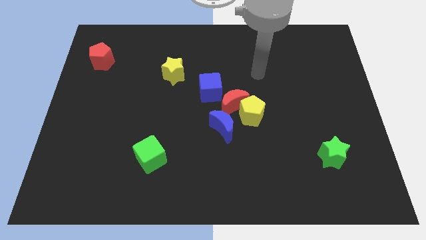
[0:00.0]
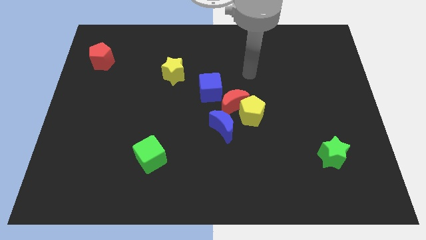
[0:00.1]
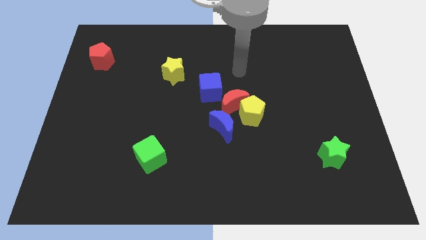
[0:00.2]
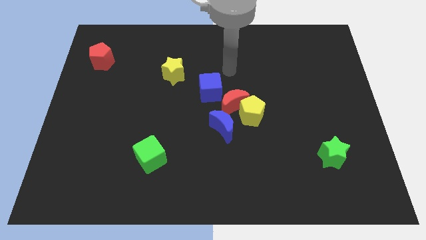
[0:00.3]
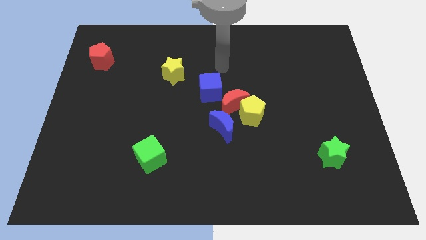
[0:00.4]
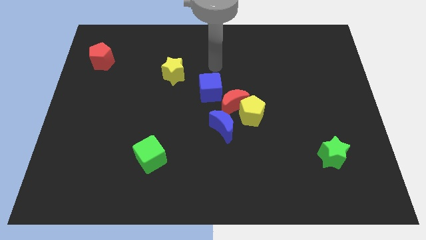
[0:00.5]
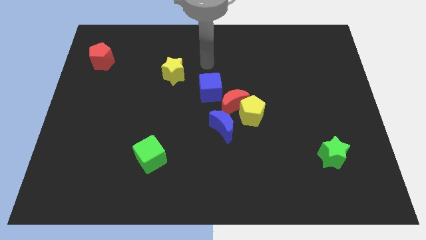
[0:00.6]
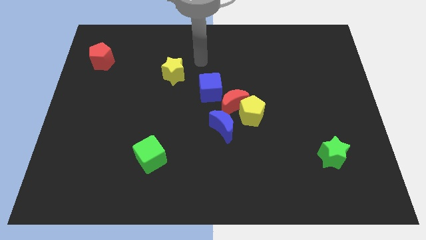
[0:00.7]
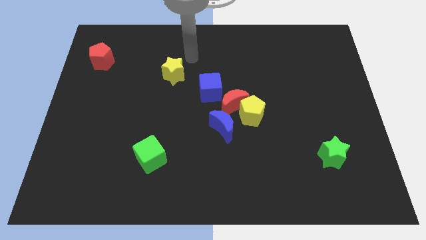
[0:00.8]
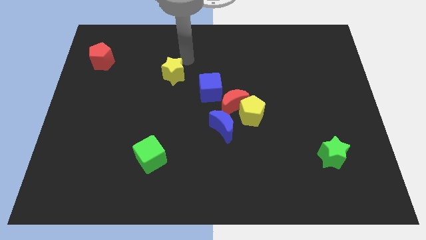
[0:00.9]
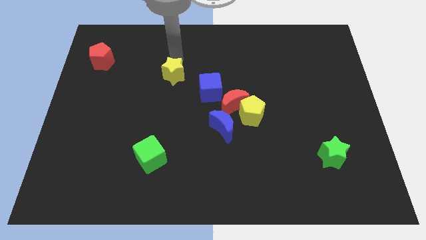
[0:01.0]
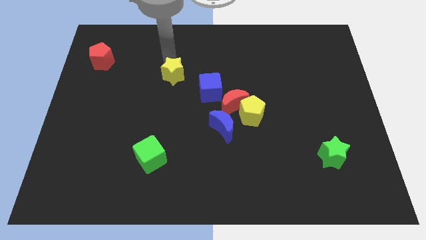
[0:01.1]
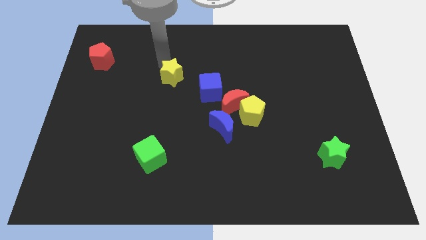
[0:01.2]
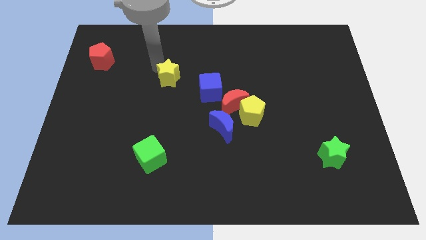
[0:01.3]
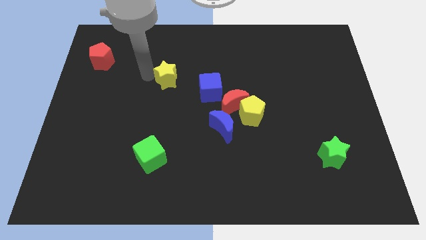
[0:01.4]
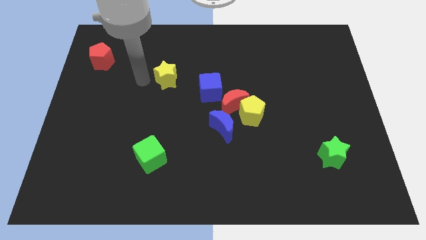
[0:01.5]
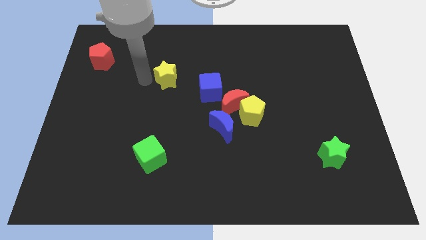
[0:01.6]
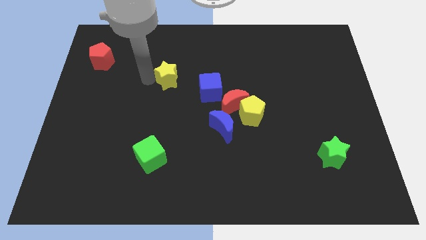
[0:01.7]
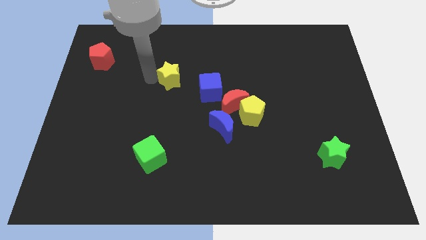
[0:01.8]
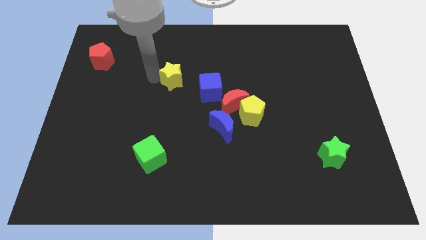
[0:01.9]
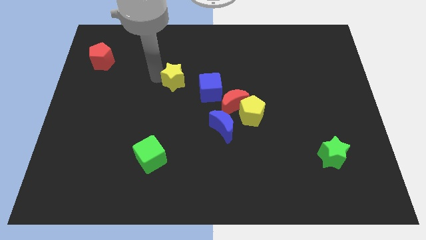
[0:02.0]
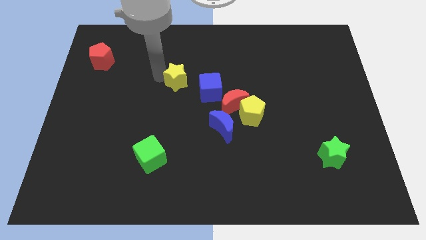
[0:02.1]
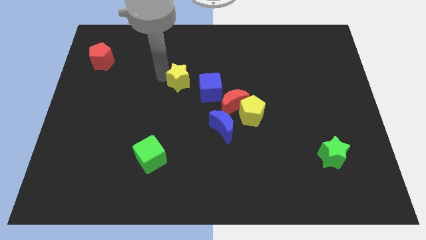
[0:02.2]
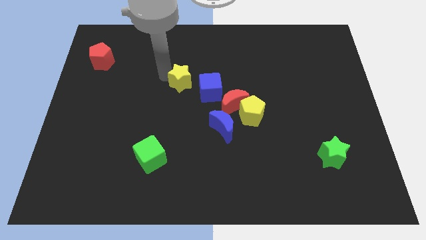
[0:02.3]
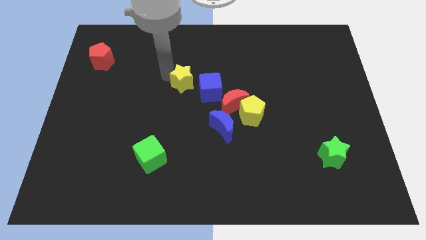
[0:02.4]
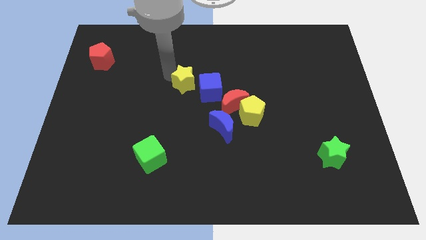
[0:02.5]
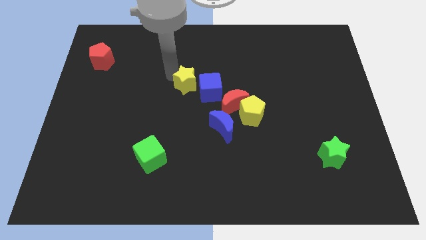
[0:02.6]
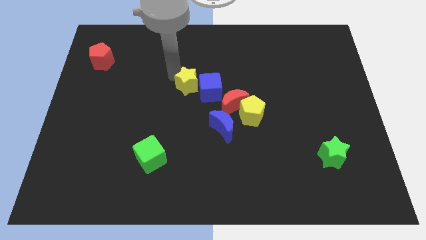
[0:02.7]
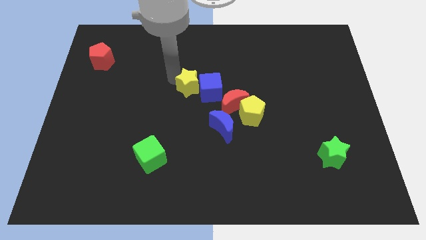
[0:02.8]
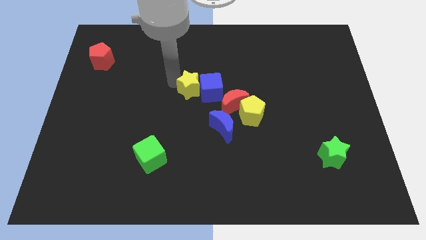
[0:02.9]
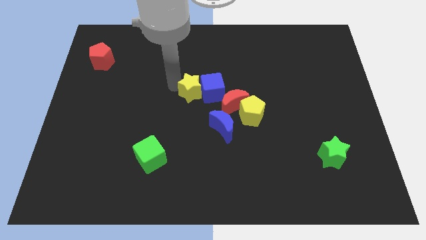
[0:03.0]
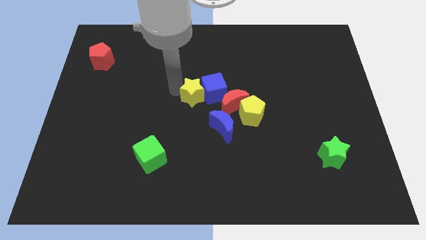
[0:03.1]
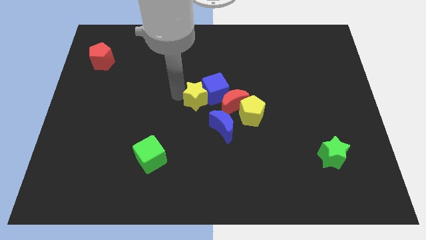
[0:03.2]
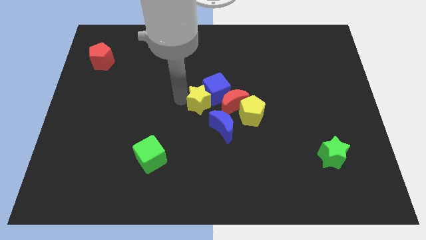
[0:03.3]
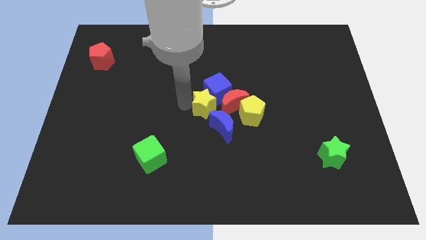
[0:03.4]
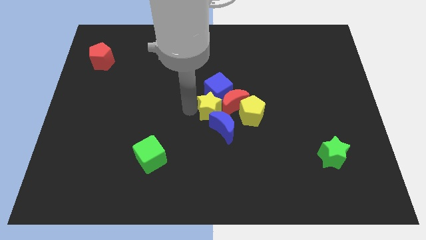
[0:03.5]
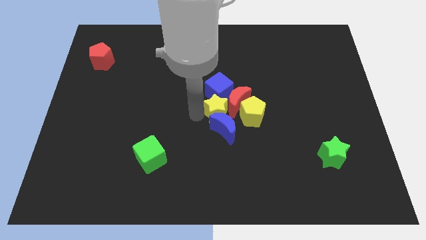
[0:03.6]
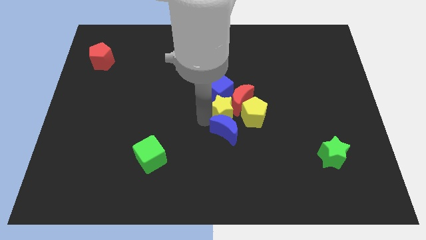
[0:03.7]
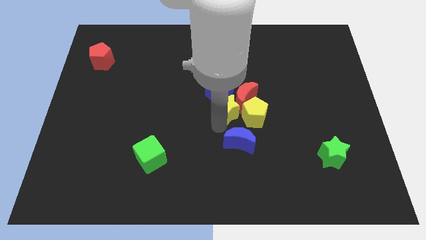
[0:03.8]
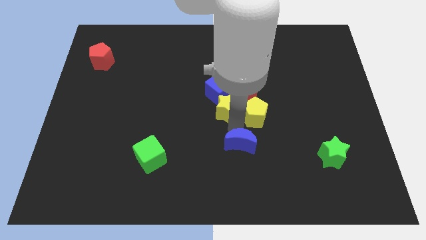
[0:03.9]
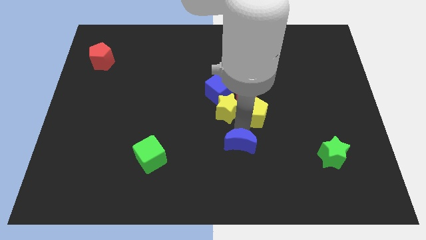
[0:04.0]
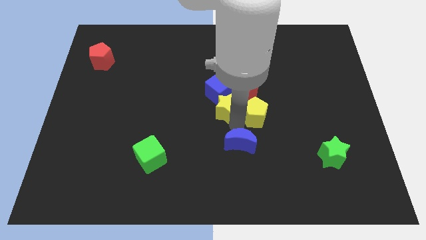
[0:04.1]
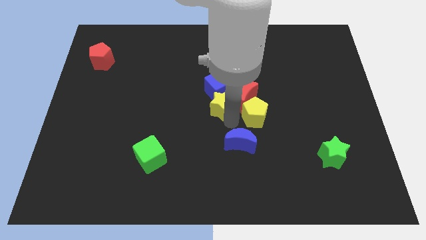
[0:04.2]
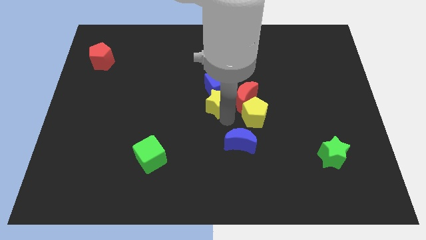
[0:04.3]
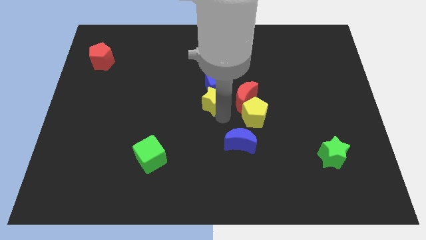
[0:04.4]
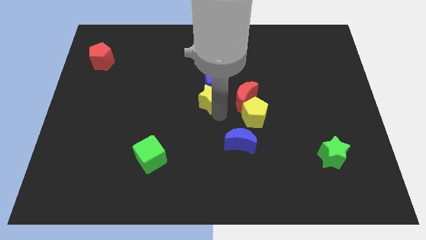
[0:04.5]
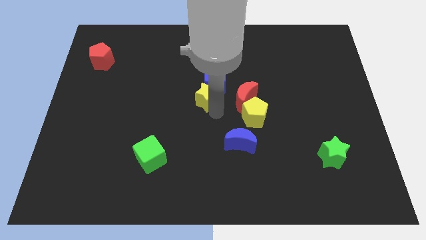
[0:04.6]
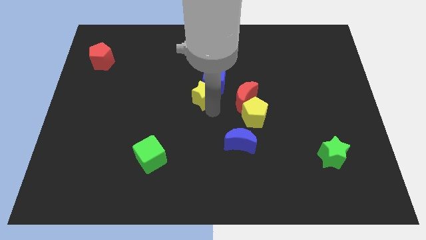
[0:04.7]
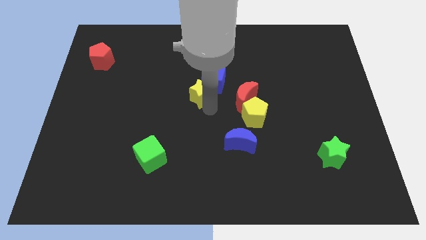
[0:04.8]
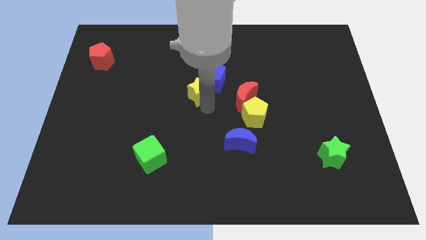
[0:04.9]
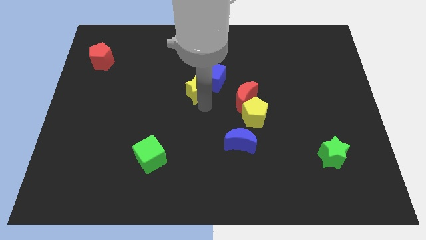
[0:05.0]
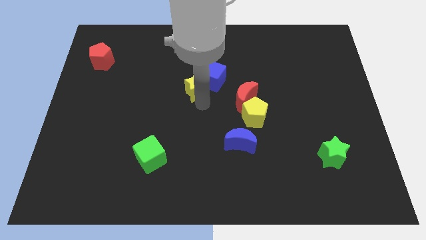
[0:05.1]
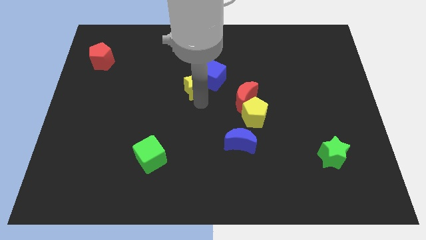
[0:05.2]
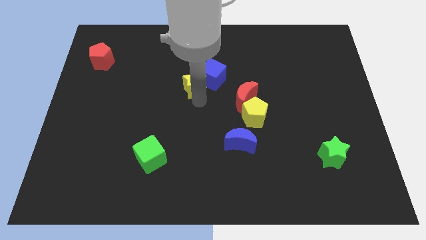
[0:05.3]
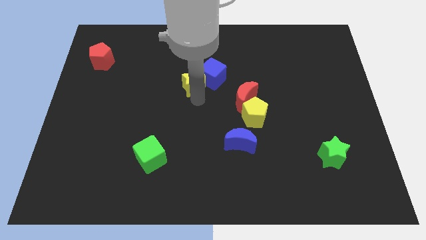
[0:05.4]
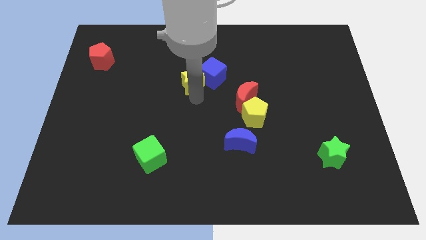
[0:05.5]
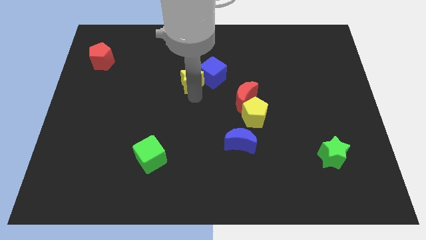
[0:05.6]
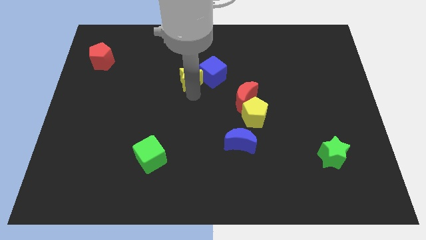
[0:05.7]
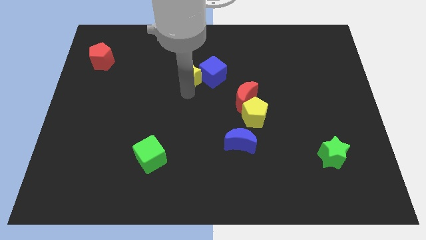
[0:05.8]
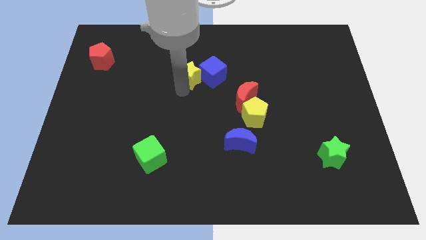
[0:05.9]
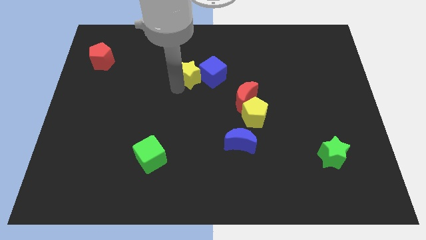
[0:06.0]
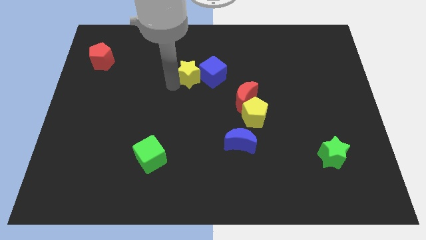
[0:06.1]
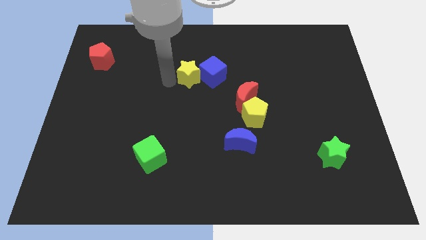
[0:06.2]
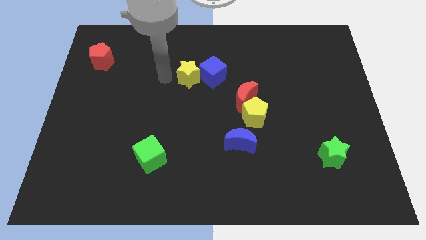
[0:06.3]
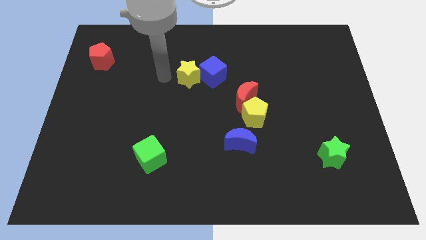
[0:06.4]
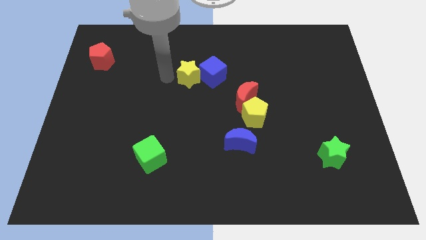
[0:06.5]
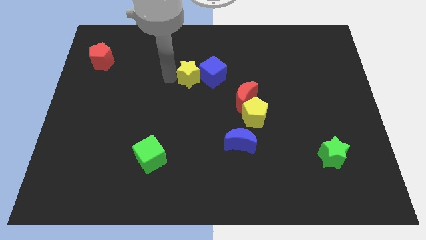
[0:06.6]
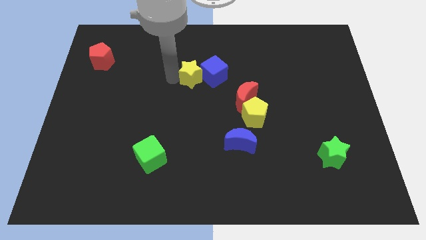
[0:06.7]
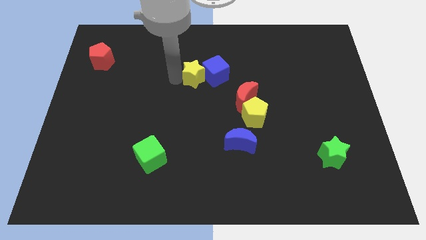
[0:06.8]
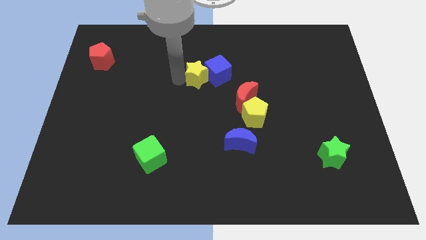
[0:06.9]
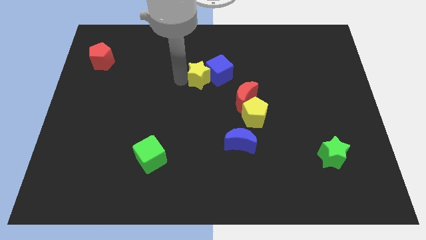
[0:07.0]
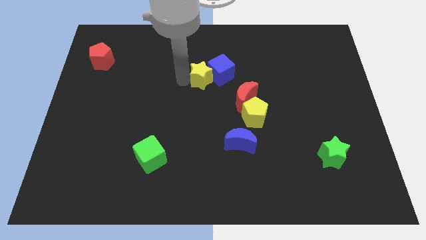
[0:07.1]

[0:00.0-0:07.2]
move the yellow star to the right a bit

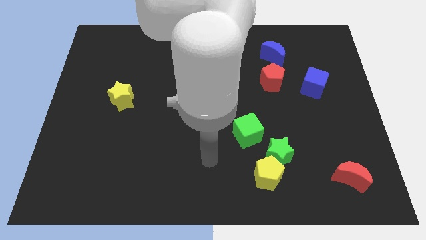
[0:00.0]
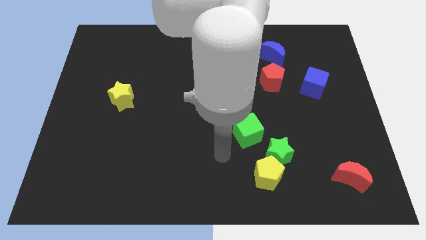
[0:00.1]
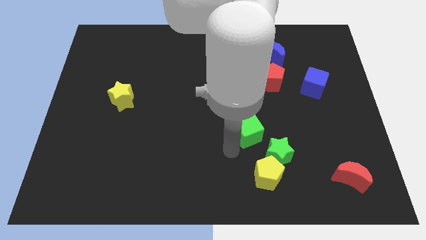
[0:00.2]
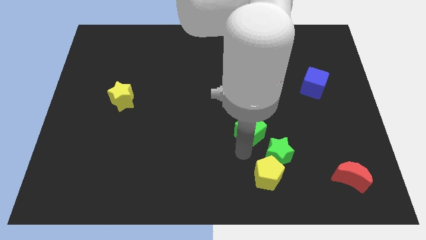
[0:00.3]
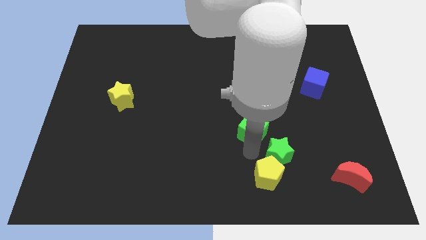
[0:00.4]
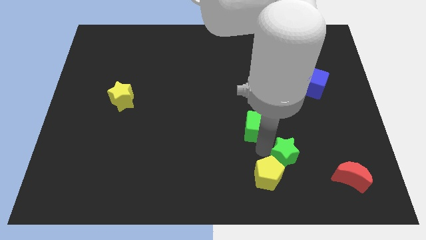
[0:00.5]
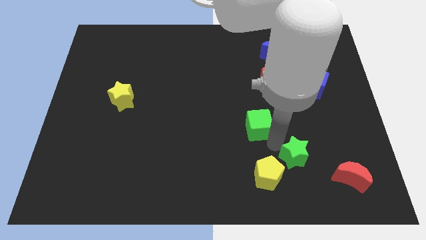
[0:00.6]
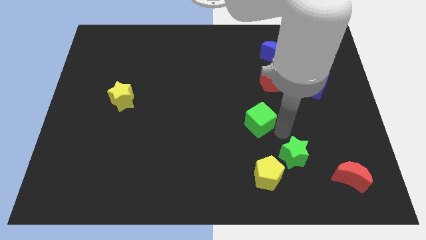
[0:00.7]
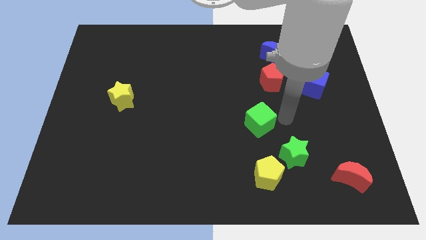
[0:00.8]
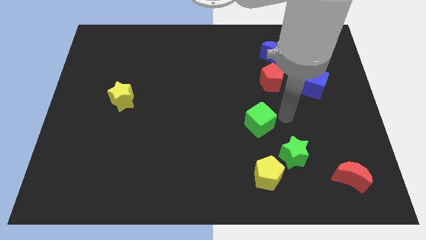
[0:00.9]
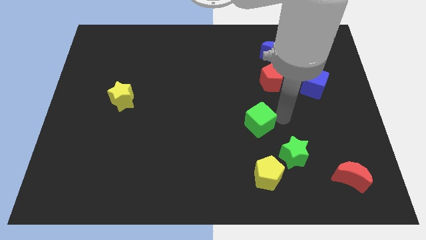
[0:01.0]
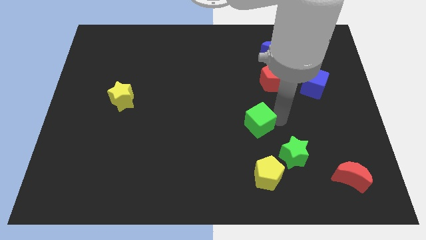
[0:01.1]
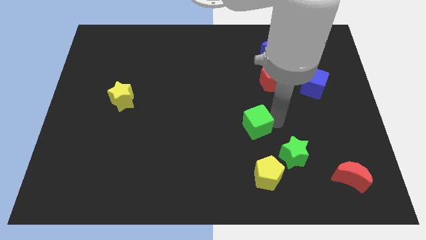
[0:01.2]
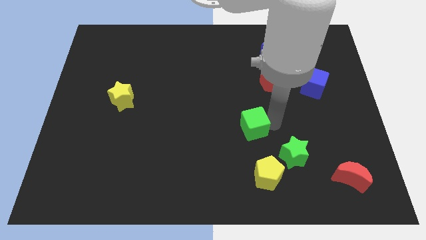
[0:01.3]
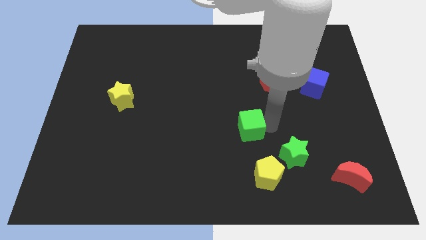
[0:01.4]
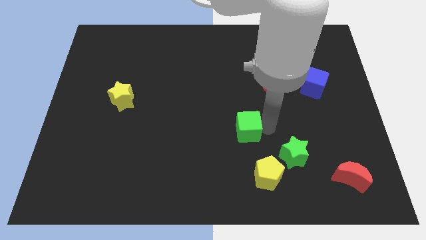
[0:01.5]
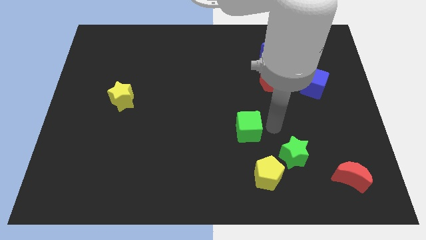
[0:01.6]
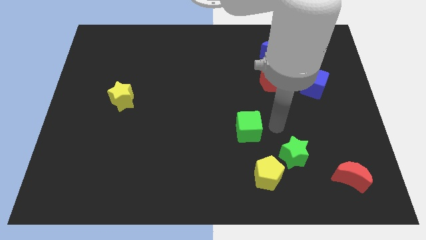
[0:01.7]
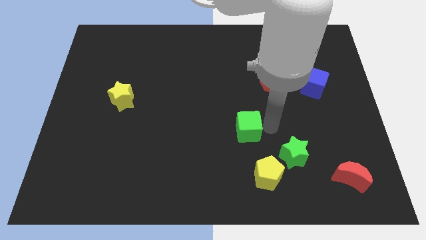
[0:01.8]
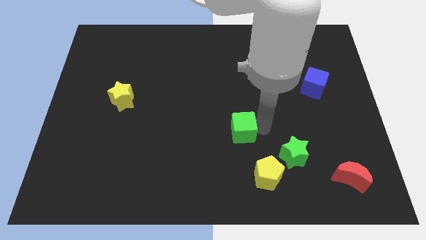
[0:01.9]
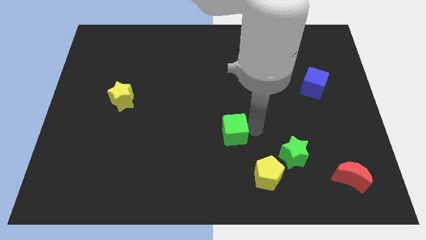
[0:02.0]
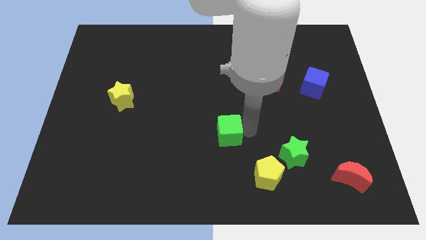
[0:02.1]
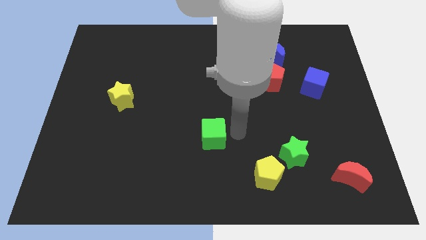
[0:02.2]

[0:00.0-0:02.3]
slightly push the green cube to the left
